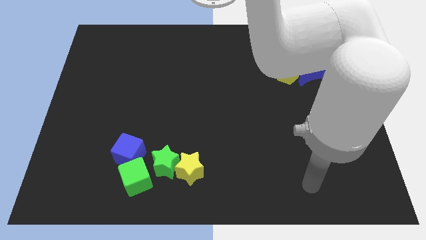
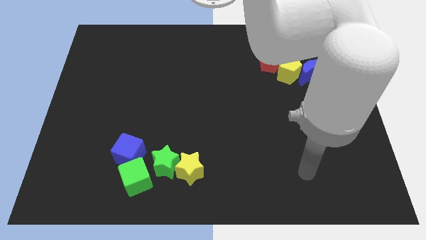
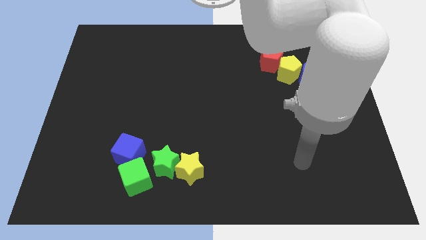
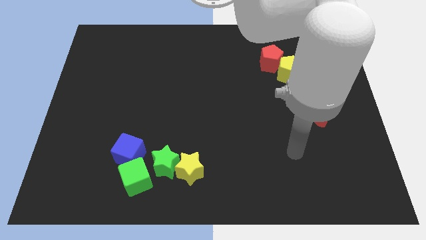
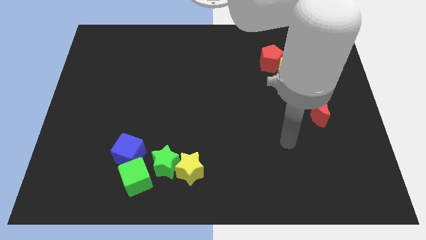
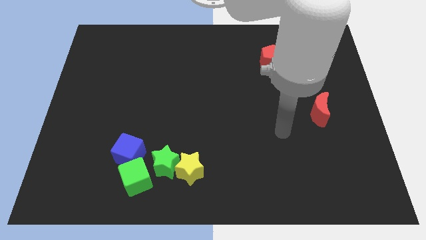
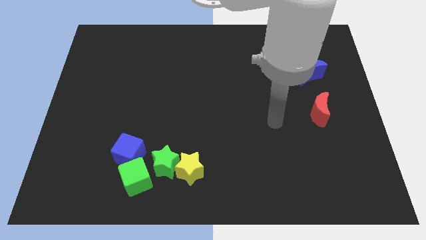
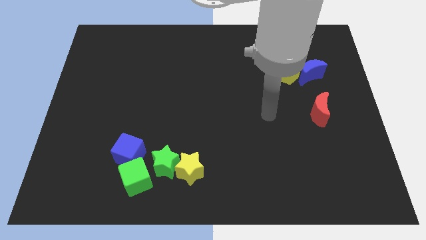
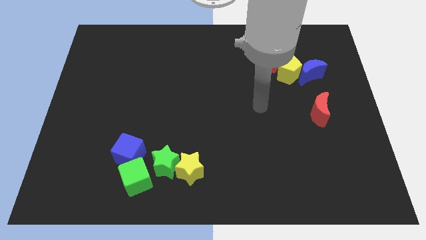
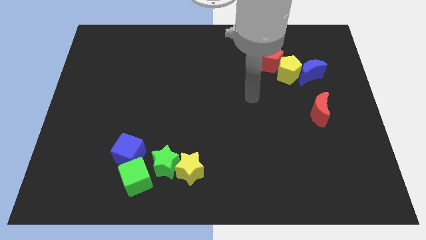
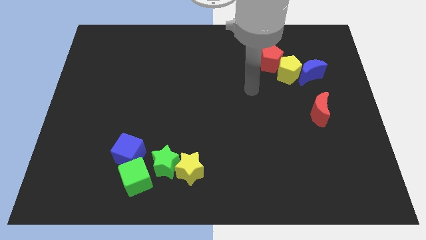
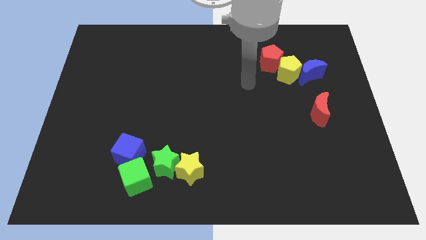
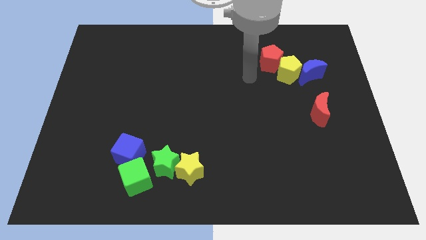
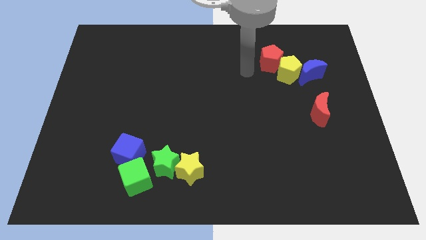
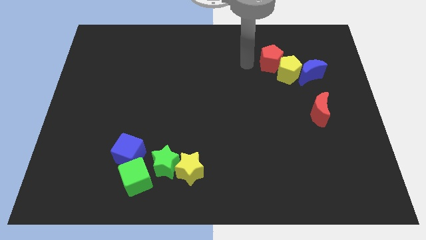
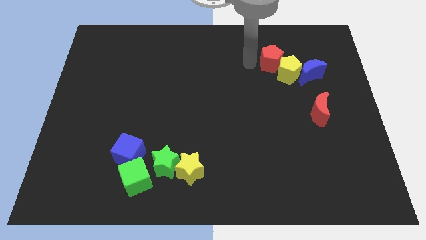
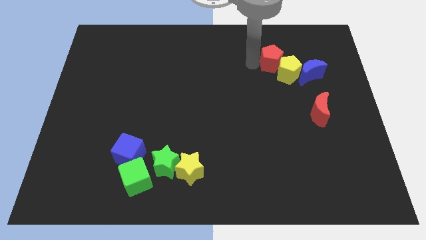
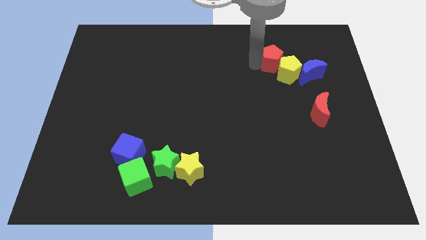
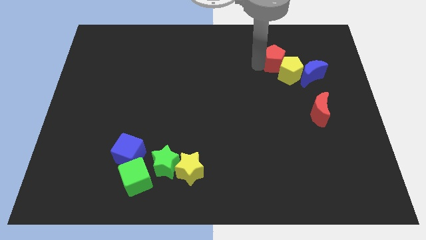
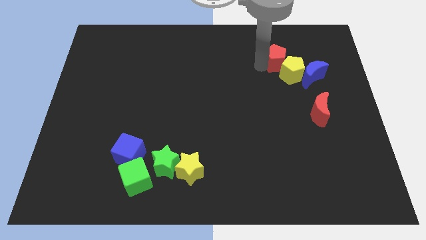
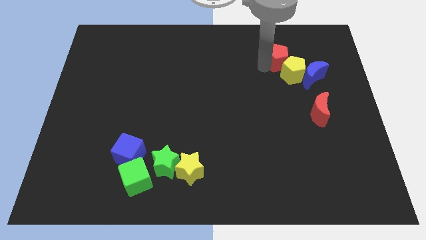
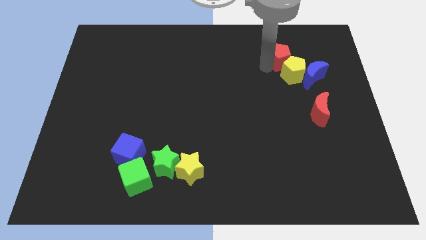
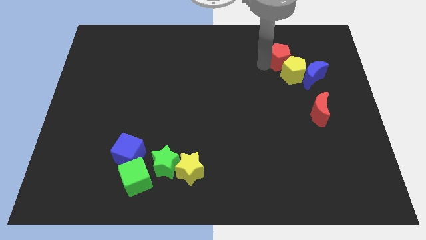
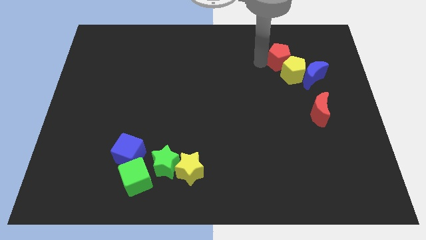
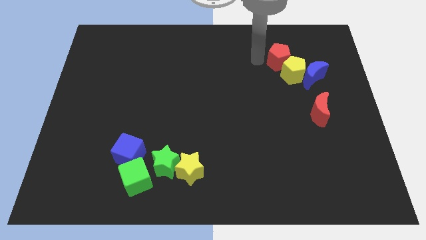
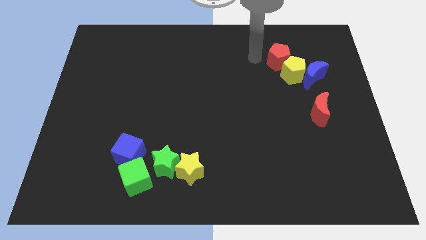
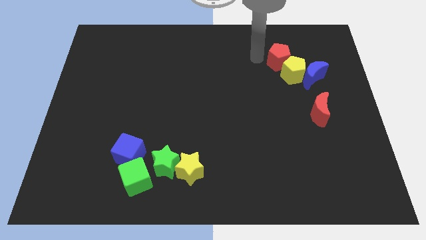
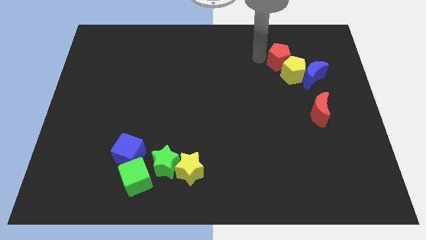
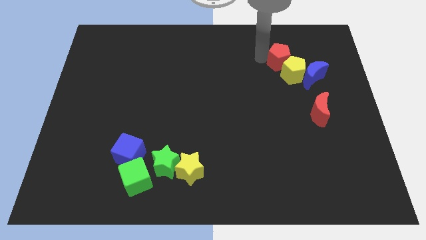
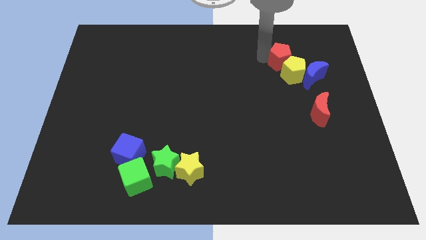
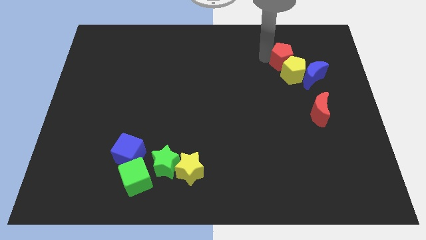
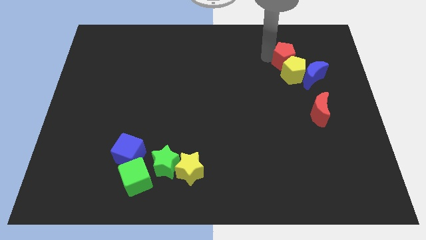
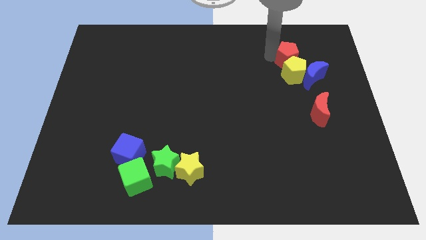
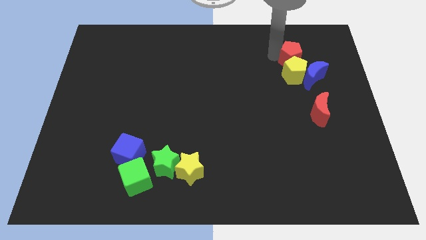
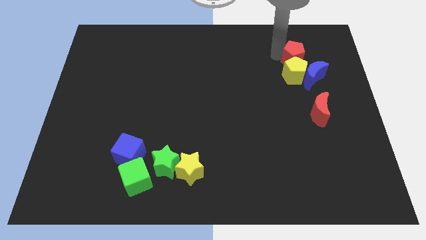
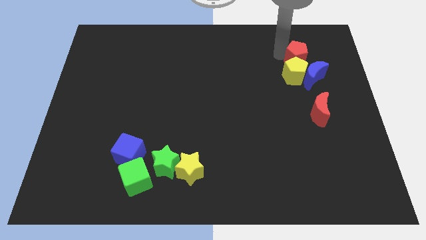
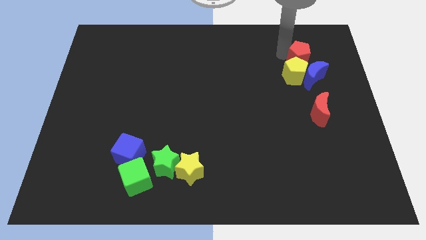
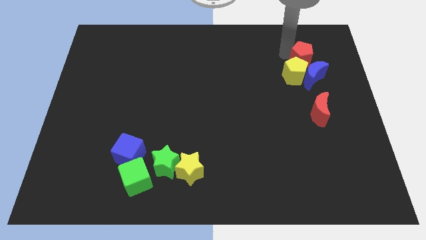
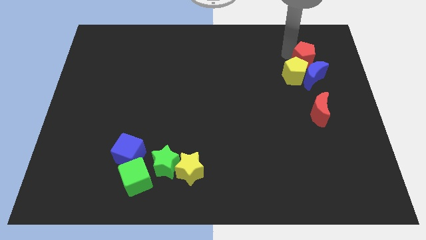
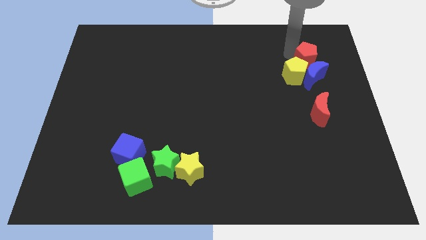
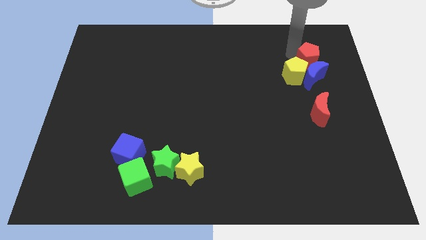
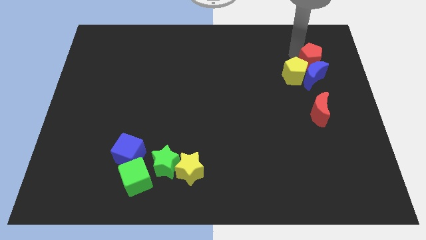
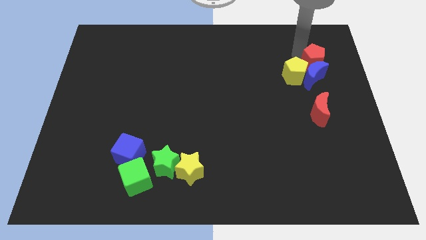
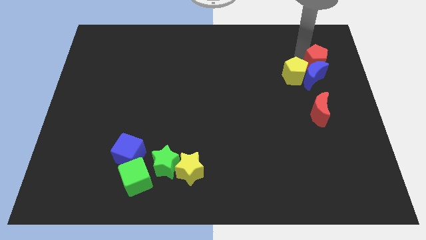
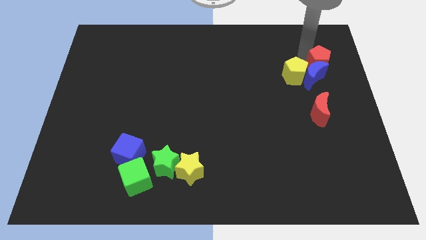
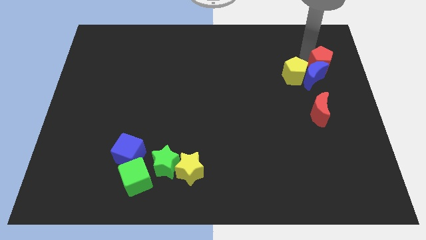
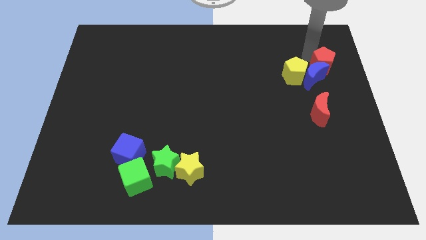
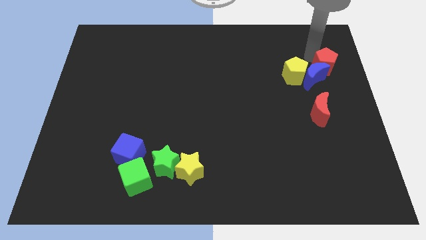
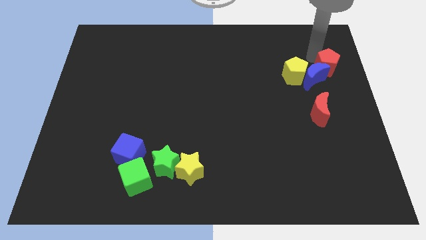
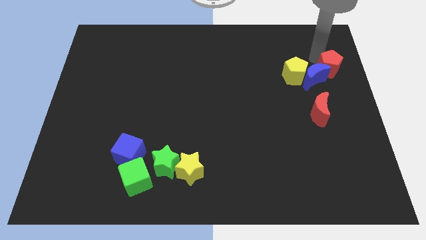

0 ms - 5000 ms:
put the red pentagon to the right side

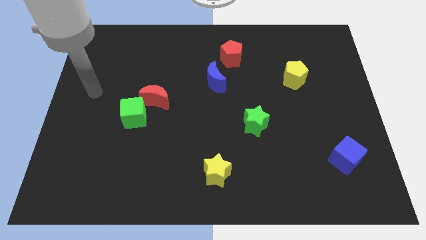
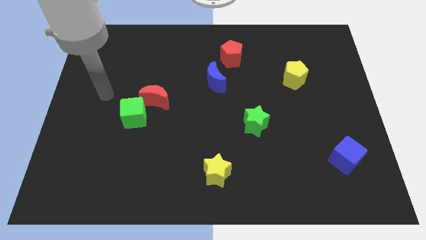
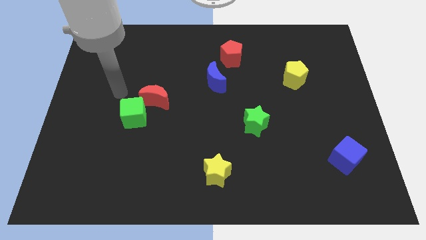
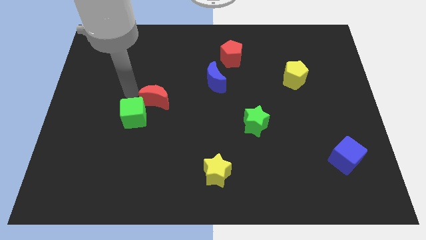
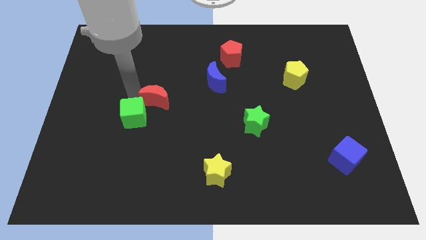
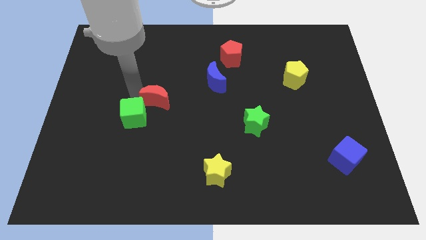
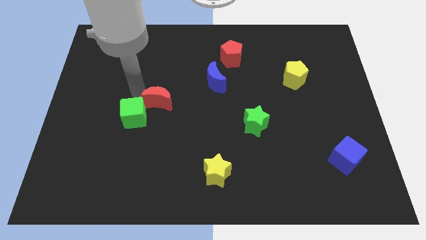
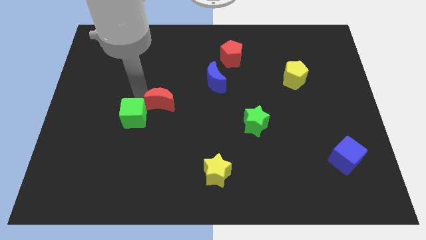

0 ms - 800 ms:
push the red moon to the middle
